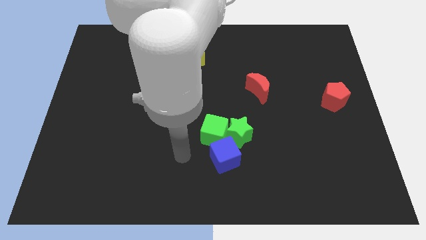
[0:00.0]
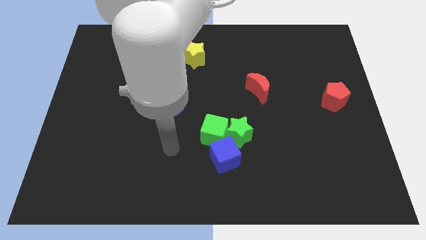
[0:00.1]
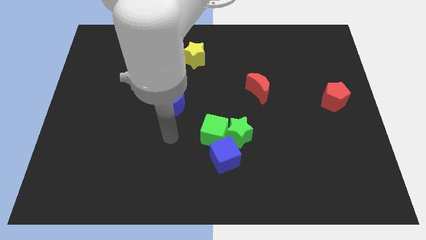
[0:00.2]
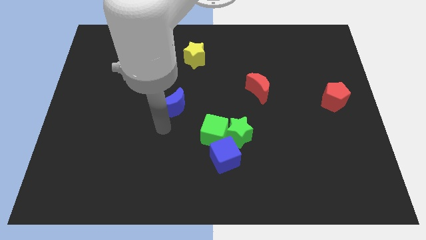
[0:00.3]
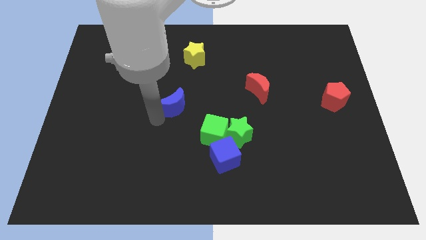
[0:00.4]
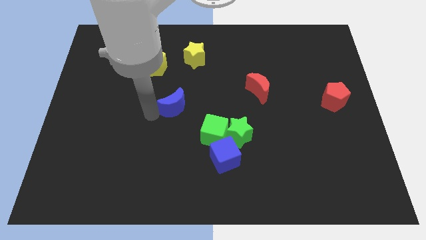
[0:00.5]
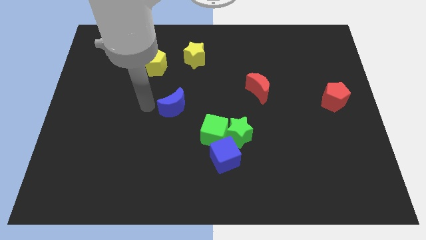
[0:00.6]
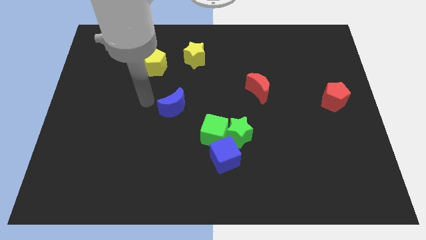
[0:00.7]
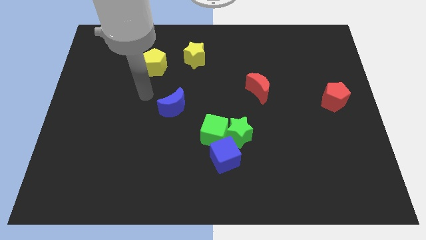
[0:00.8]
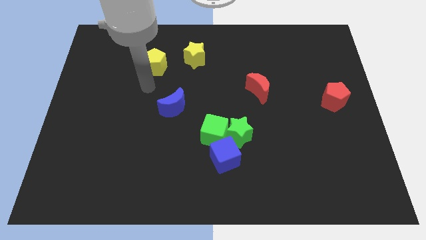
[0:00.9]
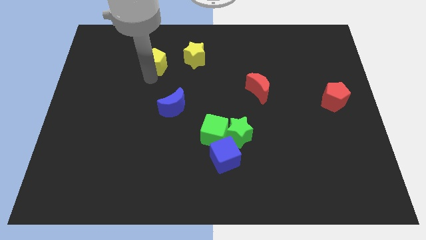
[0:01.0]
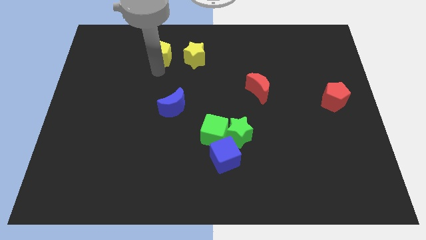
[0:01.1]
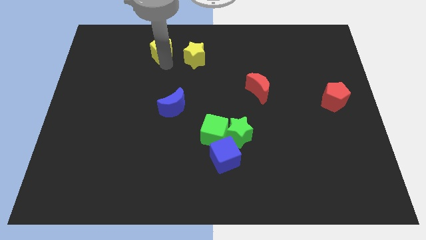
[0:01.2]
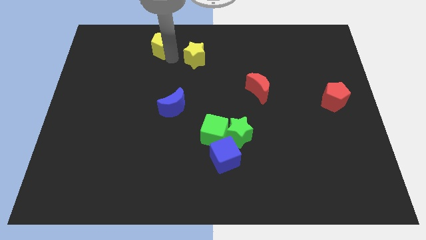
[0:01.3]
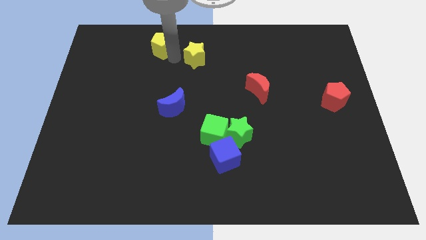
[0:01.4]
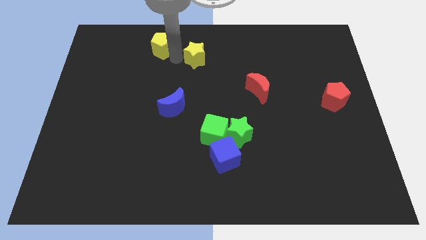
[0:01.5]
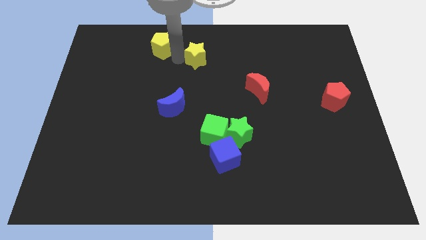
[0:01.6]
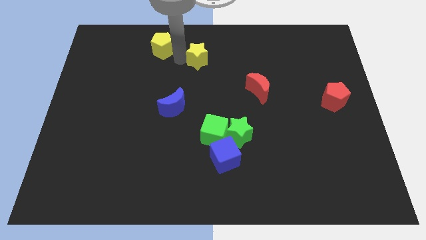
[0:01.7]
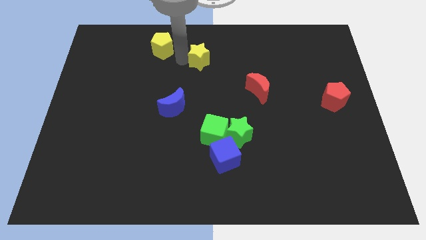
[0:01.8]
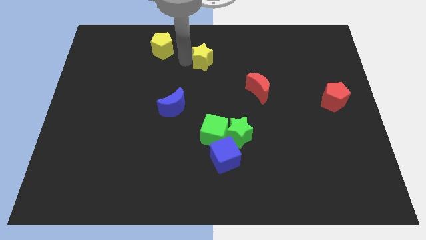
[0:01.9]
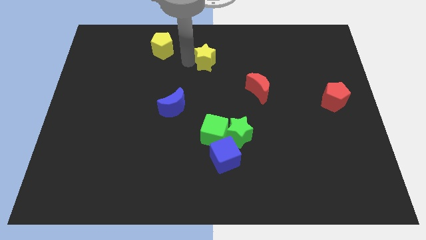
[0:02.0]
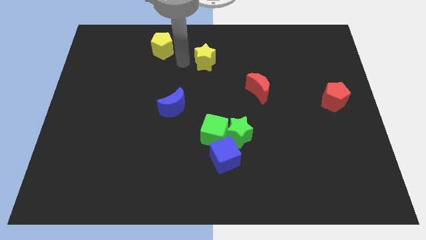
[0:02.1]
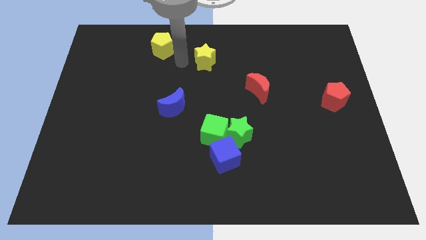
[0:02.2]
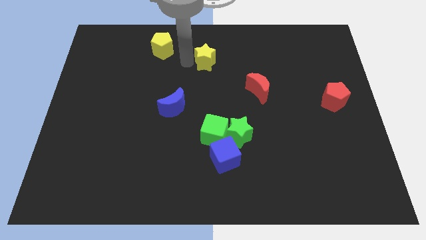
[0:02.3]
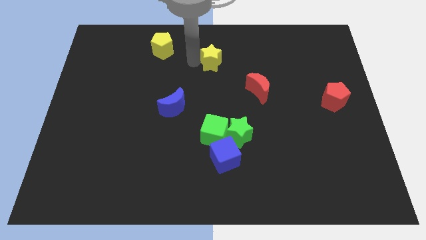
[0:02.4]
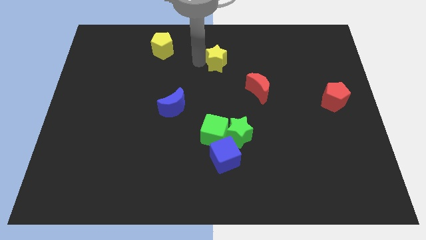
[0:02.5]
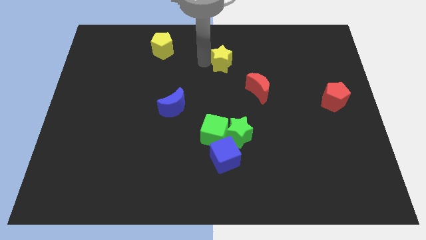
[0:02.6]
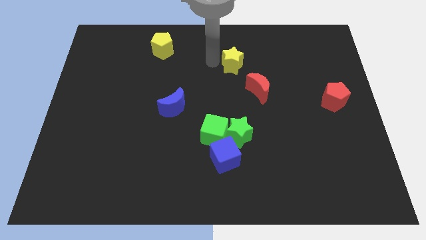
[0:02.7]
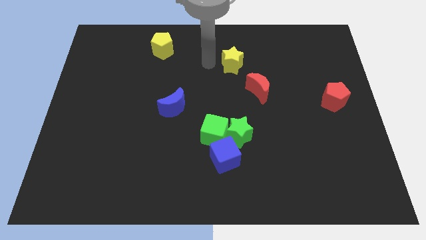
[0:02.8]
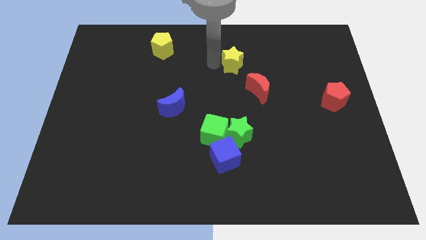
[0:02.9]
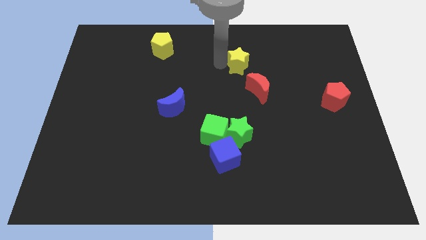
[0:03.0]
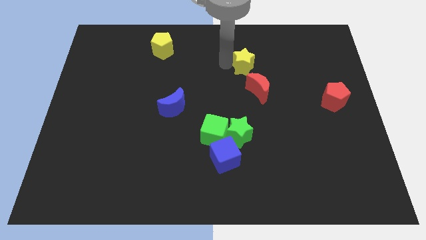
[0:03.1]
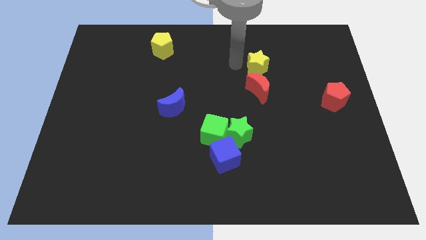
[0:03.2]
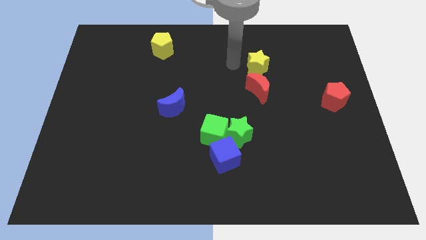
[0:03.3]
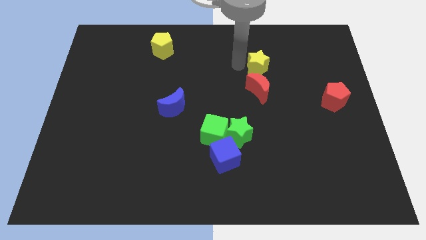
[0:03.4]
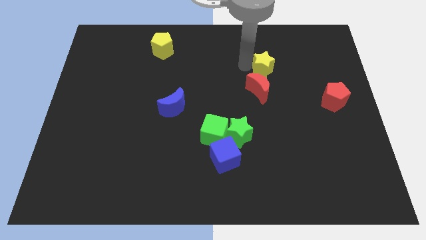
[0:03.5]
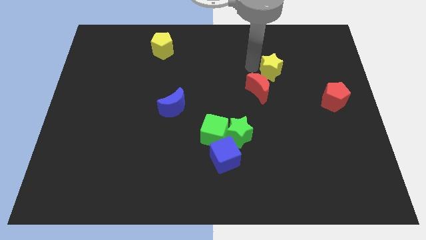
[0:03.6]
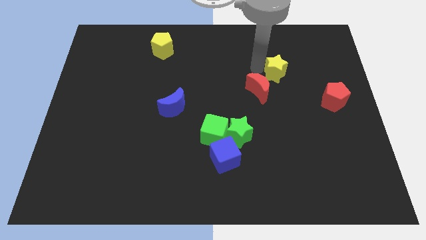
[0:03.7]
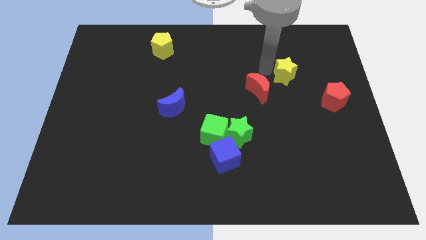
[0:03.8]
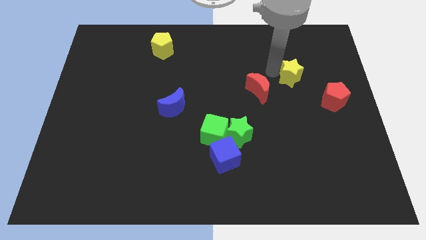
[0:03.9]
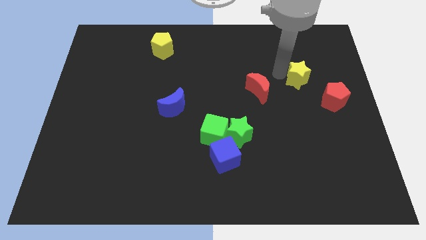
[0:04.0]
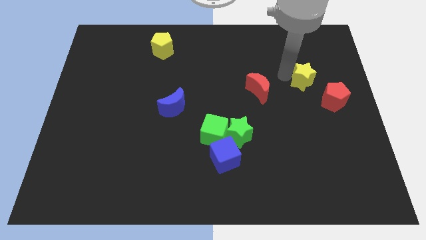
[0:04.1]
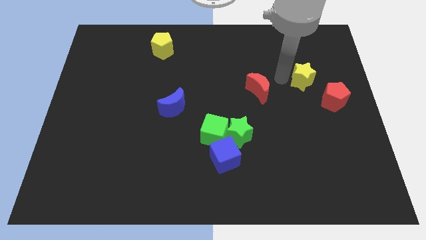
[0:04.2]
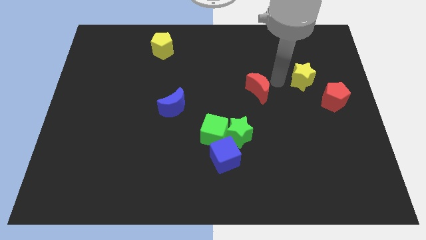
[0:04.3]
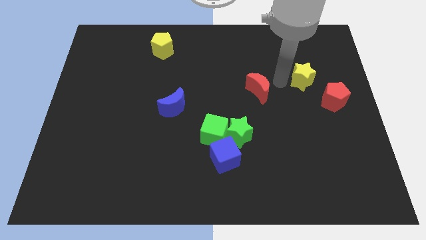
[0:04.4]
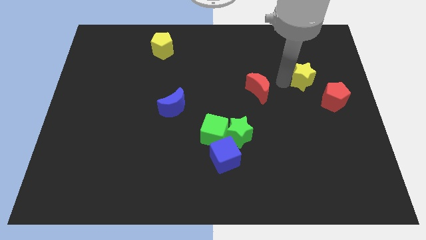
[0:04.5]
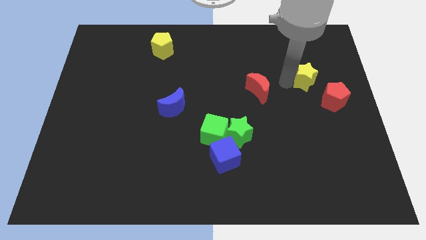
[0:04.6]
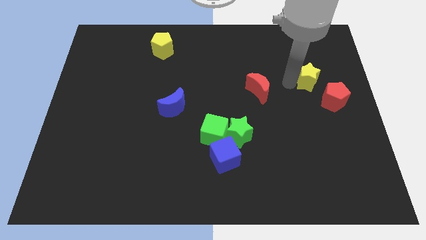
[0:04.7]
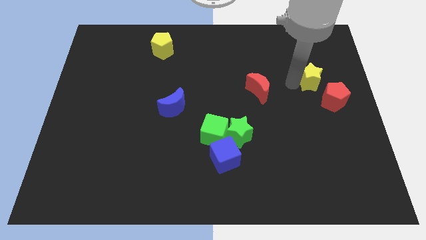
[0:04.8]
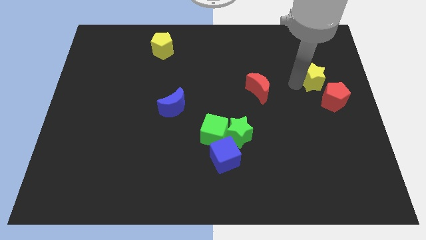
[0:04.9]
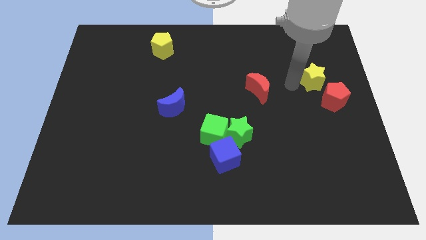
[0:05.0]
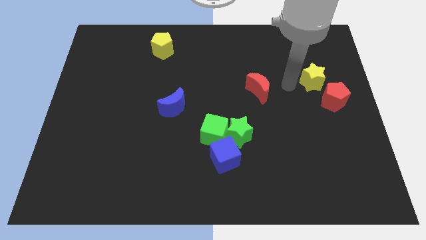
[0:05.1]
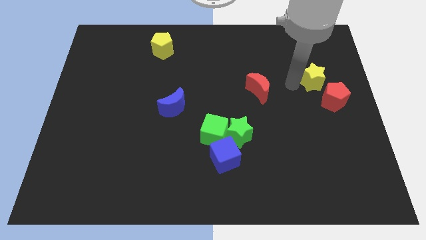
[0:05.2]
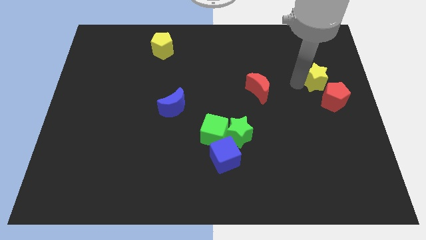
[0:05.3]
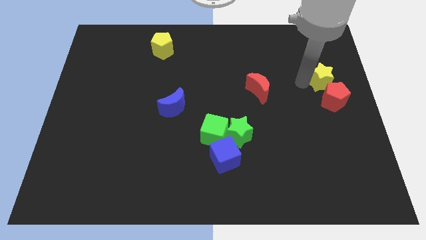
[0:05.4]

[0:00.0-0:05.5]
slide the yellow star to the right side

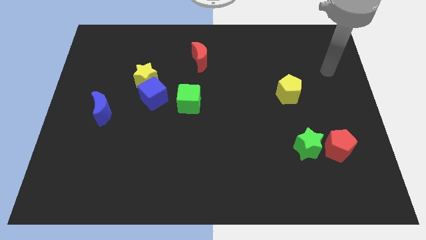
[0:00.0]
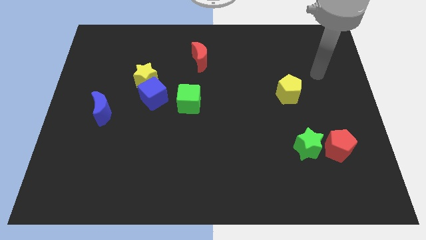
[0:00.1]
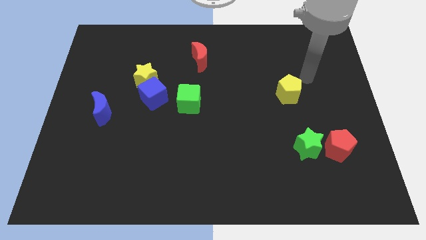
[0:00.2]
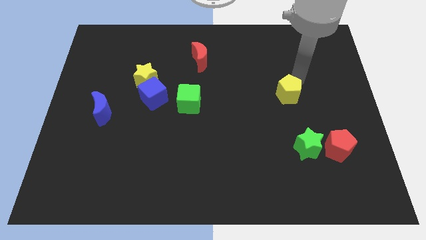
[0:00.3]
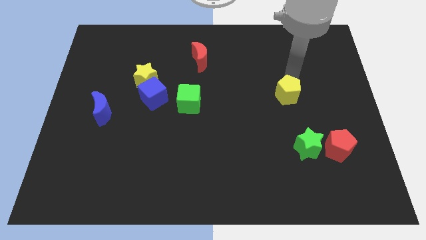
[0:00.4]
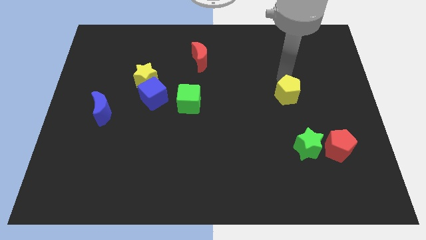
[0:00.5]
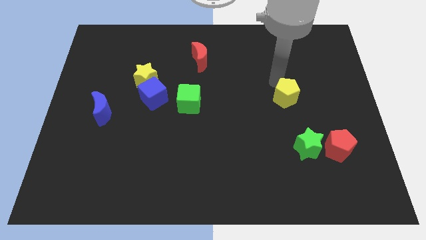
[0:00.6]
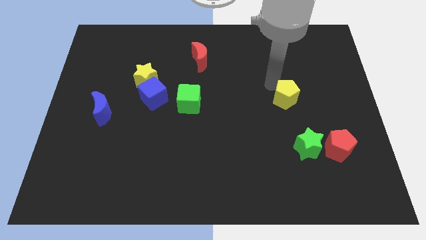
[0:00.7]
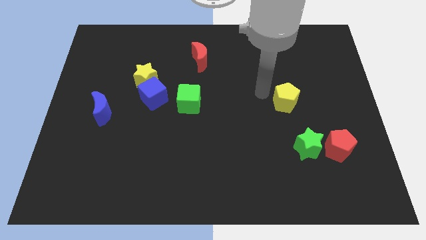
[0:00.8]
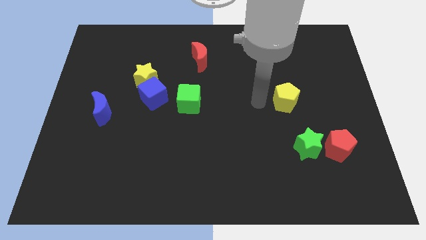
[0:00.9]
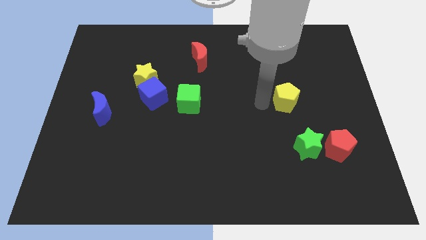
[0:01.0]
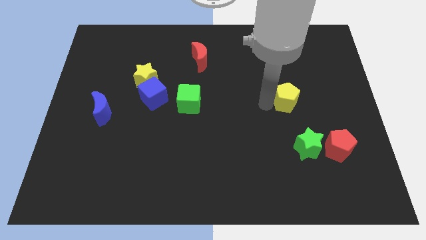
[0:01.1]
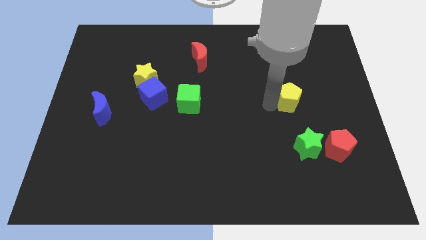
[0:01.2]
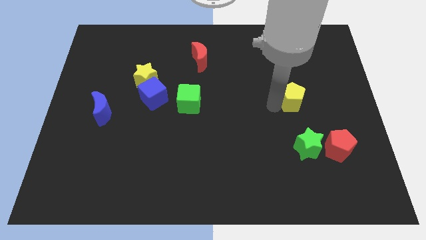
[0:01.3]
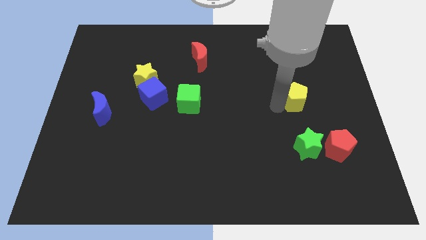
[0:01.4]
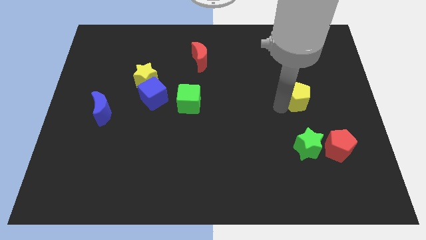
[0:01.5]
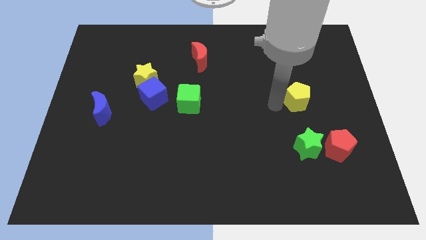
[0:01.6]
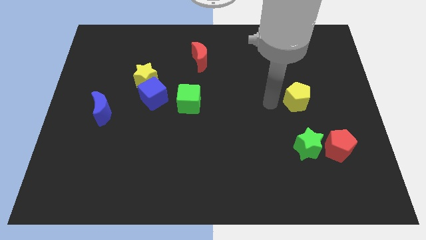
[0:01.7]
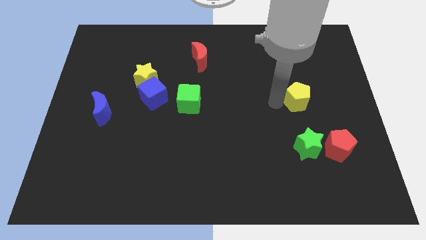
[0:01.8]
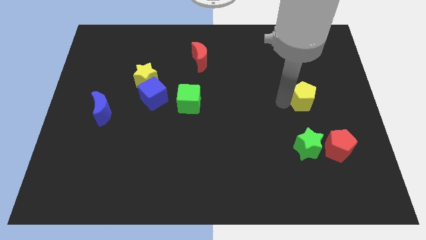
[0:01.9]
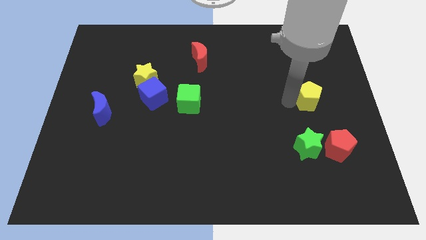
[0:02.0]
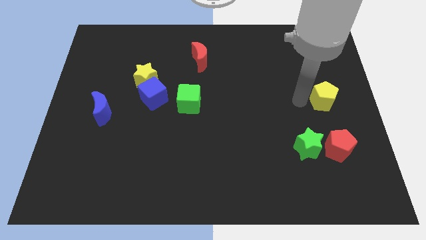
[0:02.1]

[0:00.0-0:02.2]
push the yellow pentagon to the center right
